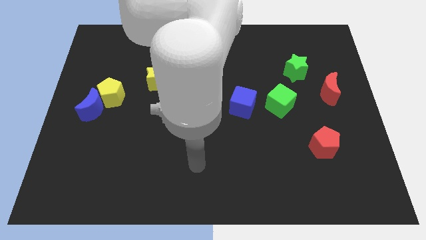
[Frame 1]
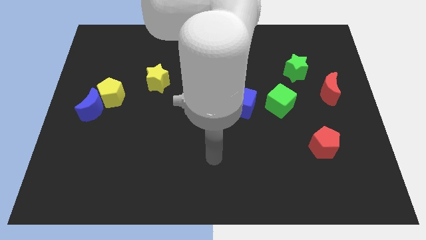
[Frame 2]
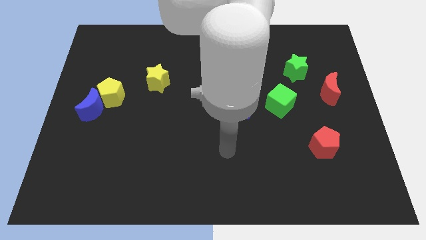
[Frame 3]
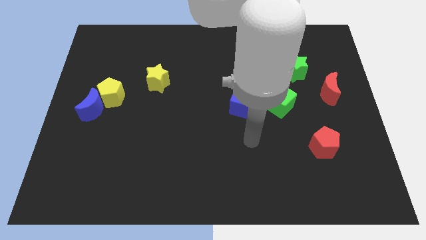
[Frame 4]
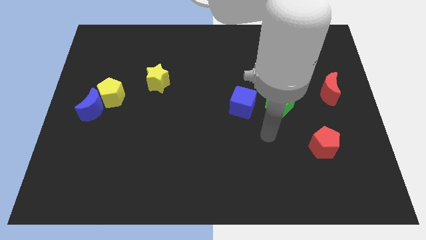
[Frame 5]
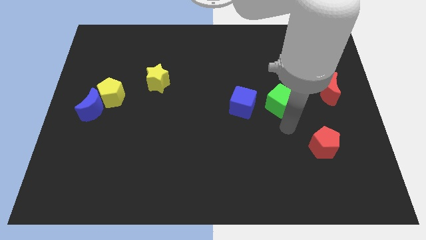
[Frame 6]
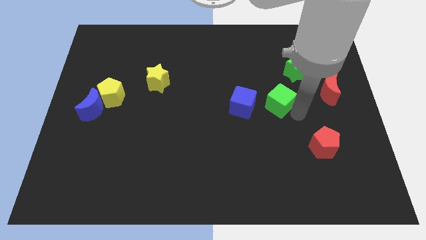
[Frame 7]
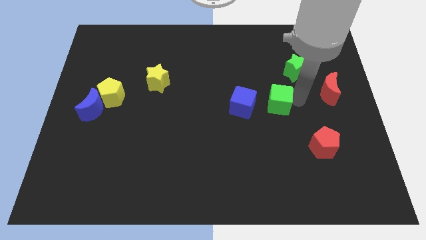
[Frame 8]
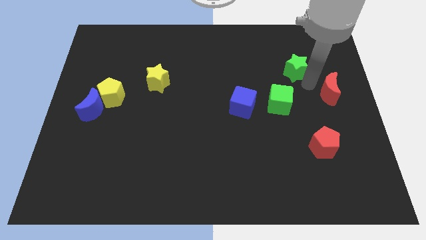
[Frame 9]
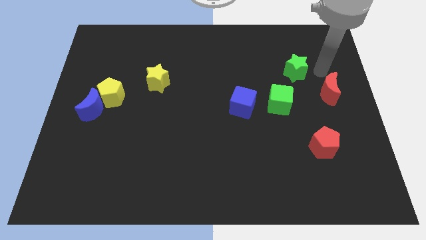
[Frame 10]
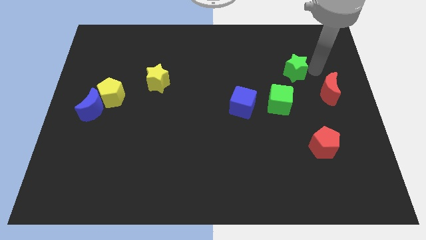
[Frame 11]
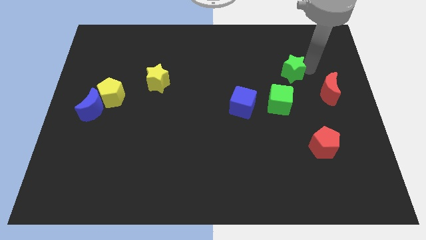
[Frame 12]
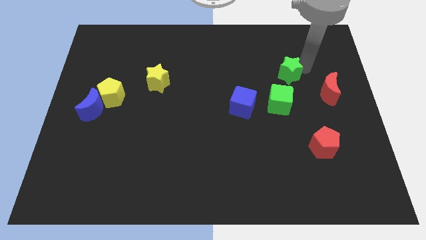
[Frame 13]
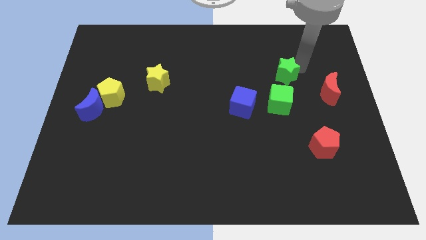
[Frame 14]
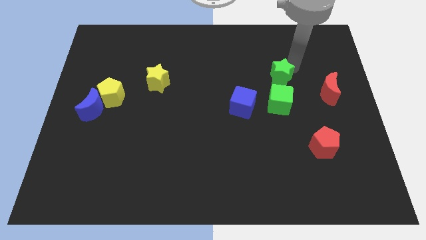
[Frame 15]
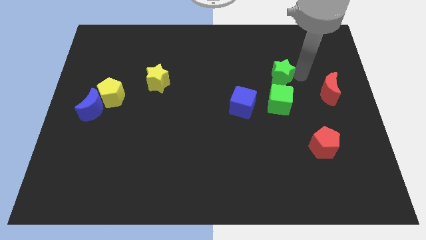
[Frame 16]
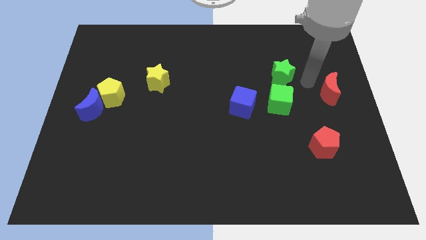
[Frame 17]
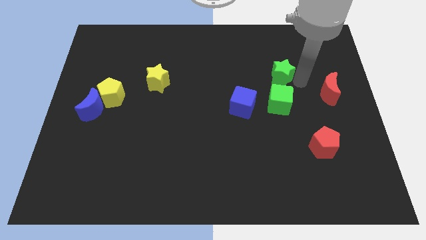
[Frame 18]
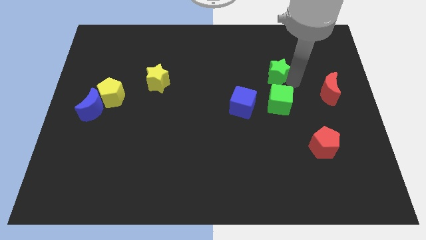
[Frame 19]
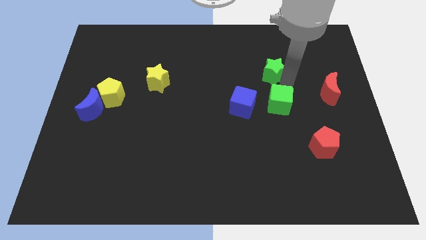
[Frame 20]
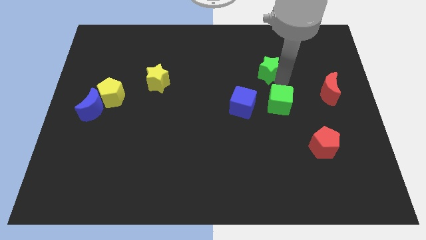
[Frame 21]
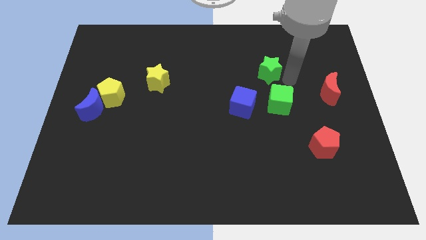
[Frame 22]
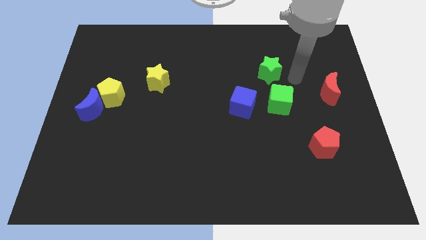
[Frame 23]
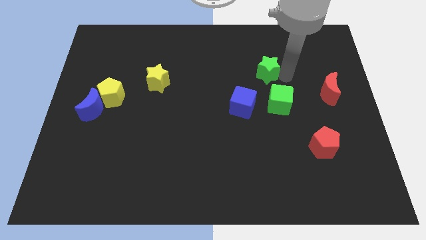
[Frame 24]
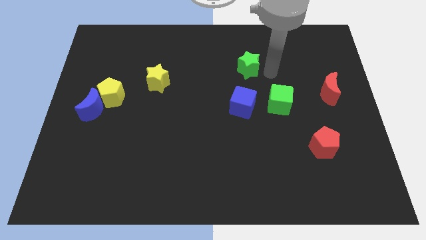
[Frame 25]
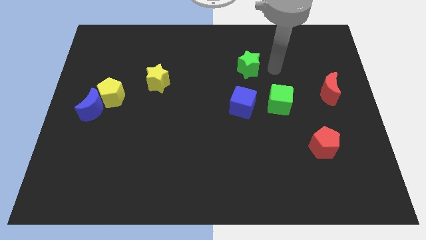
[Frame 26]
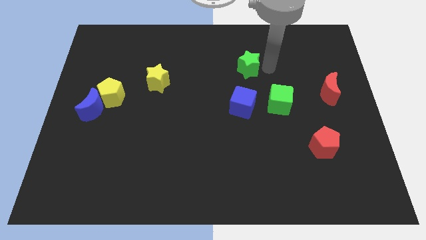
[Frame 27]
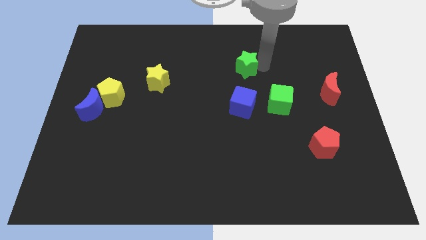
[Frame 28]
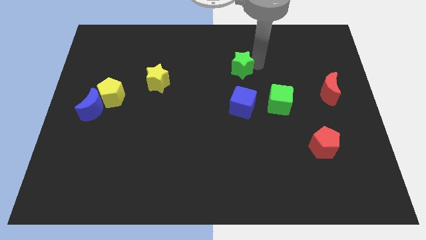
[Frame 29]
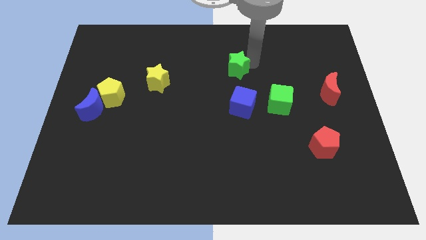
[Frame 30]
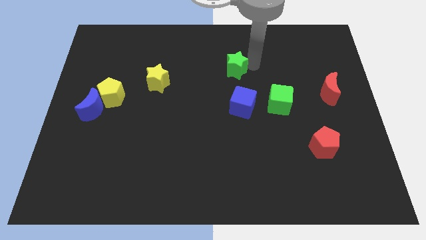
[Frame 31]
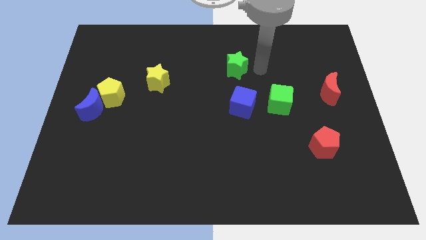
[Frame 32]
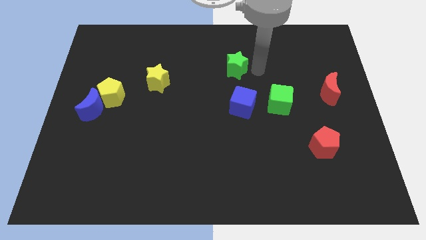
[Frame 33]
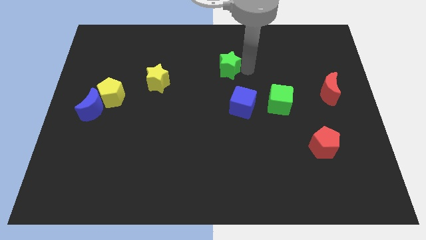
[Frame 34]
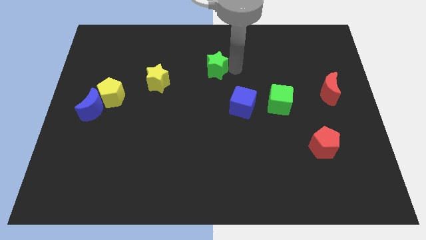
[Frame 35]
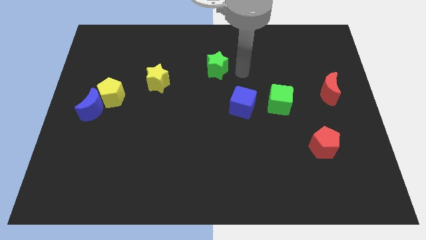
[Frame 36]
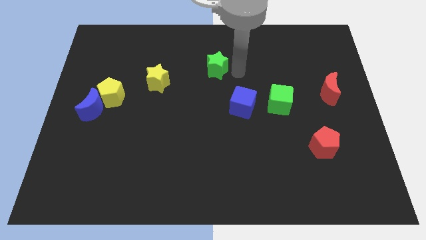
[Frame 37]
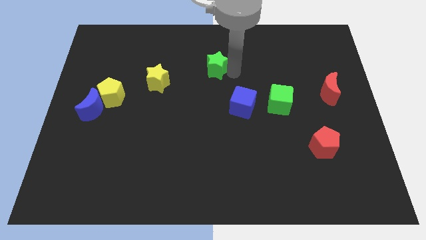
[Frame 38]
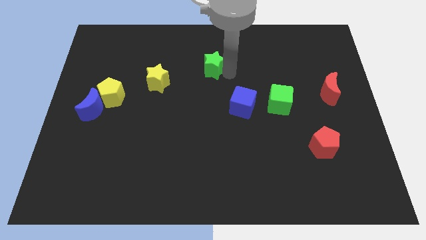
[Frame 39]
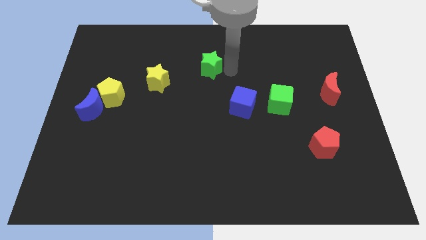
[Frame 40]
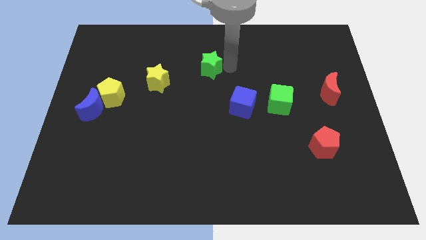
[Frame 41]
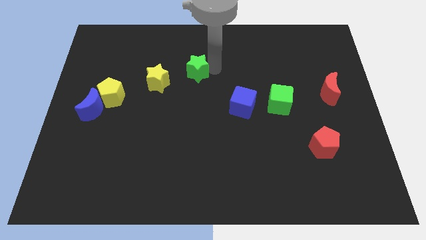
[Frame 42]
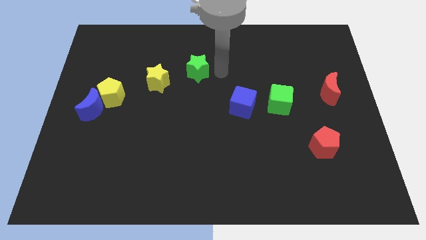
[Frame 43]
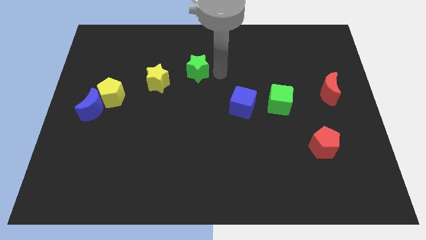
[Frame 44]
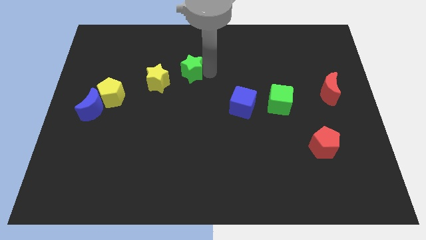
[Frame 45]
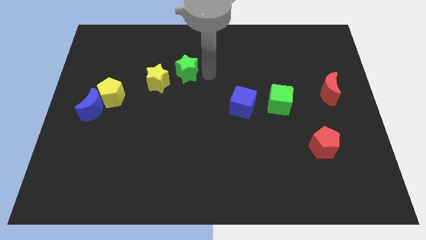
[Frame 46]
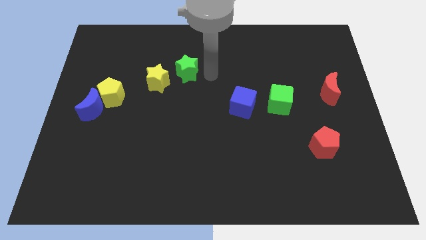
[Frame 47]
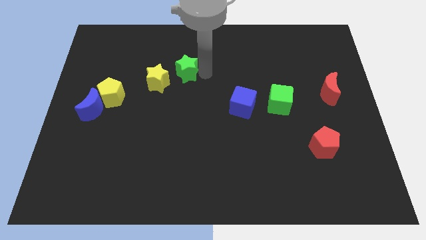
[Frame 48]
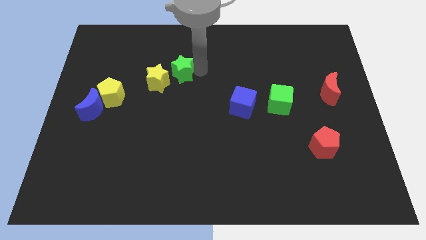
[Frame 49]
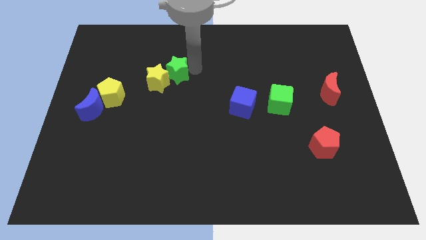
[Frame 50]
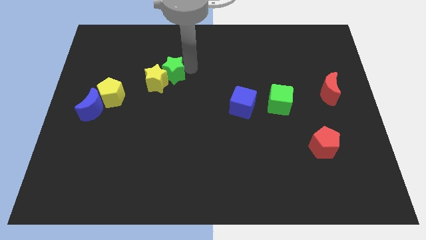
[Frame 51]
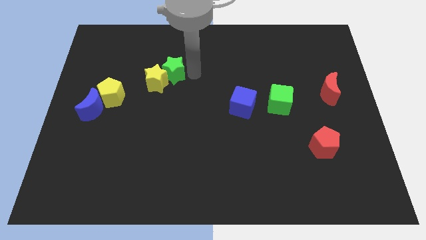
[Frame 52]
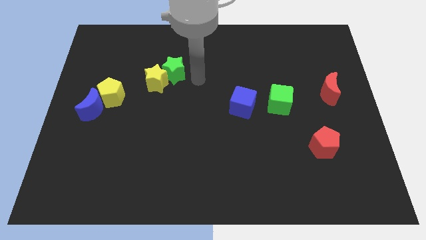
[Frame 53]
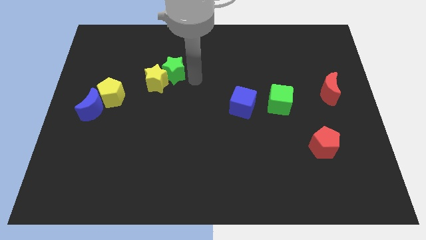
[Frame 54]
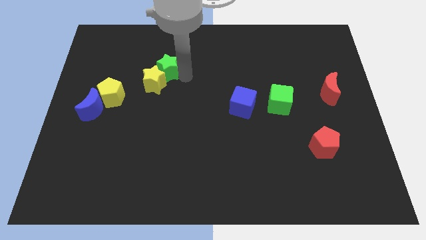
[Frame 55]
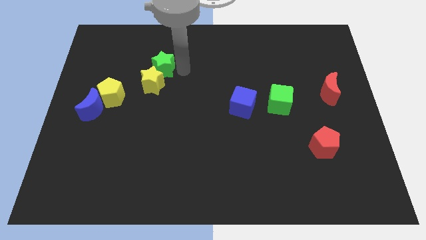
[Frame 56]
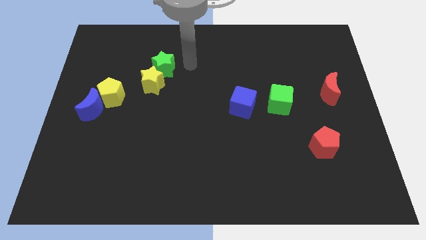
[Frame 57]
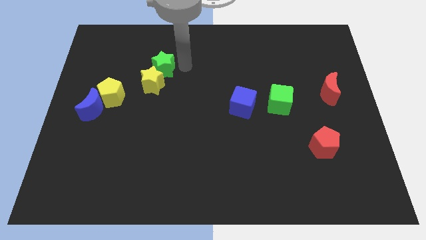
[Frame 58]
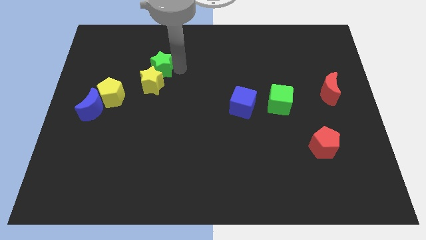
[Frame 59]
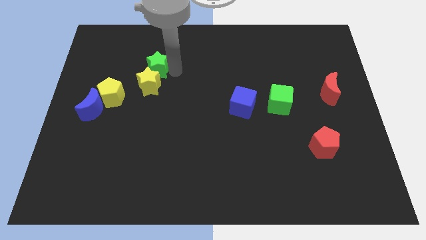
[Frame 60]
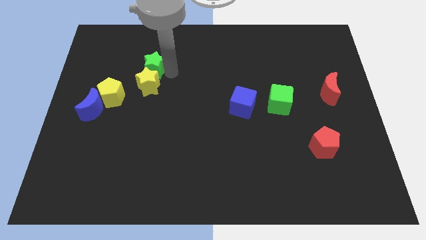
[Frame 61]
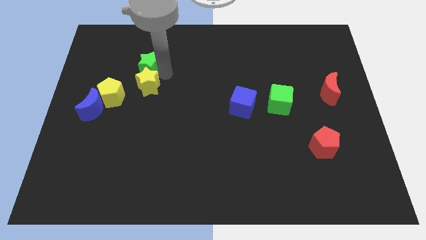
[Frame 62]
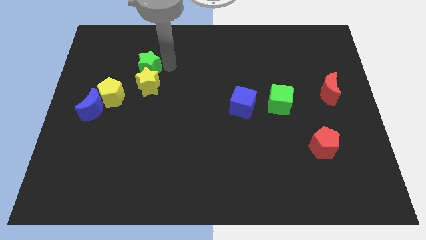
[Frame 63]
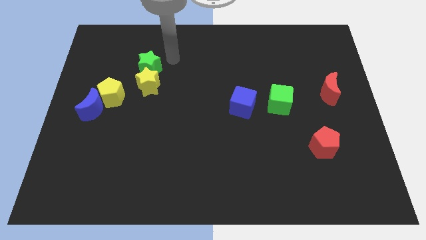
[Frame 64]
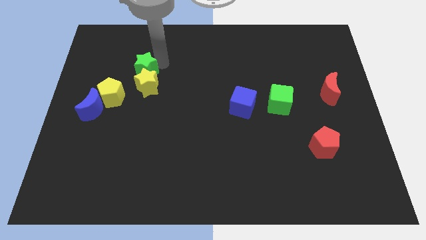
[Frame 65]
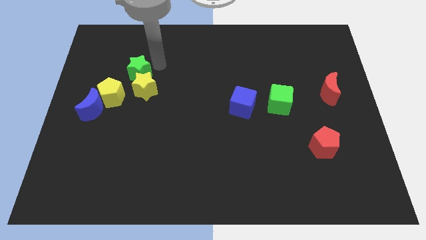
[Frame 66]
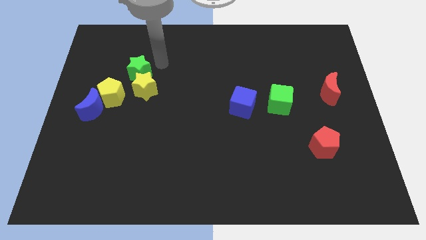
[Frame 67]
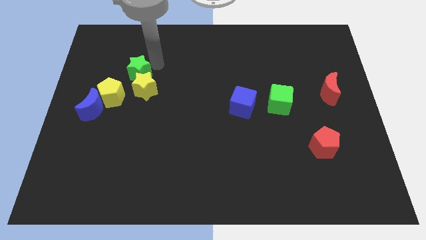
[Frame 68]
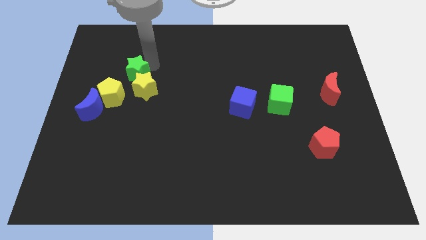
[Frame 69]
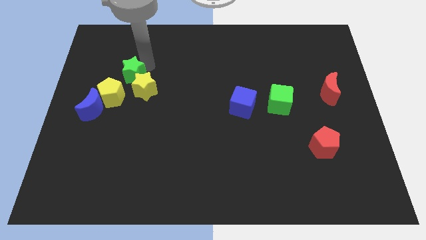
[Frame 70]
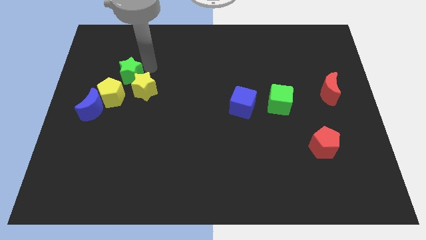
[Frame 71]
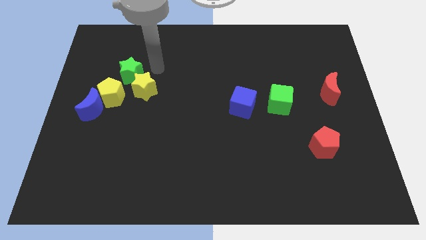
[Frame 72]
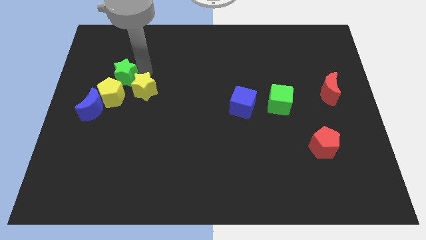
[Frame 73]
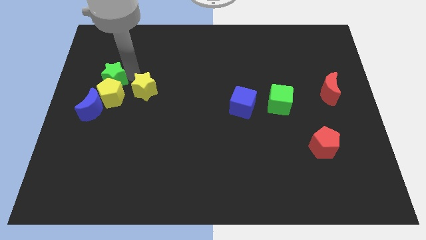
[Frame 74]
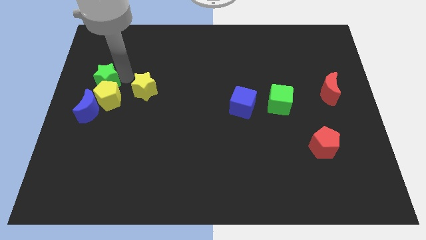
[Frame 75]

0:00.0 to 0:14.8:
put the green star to the left side

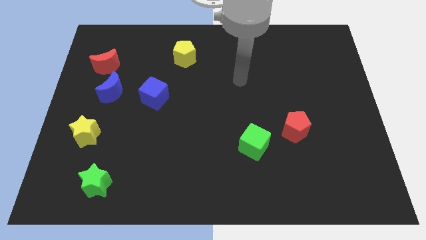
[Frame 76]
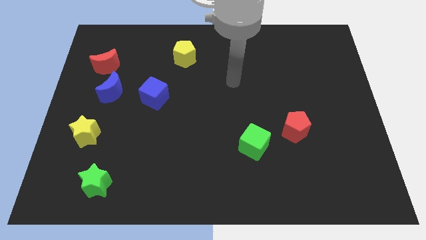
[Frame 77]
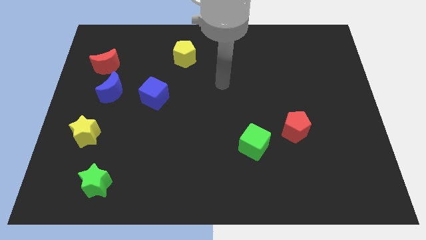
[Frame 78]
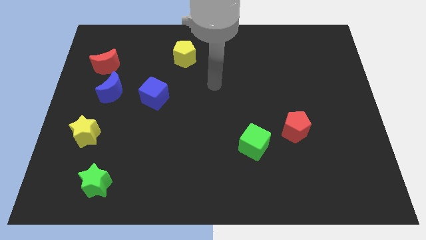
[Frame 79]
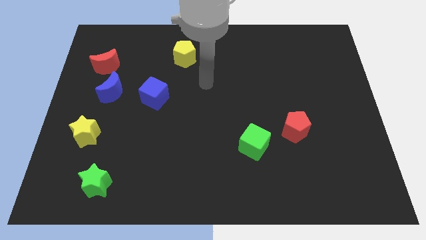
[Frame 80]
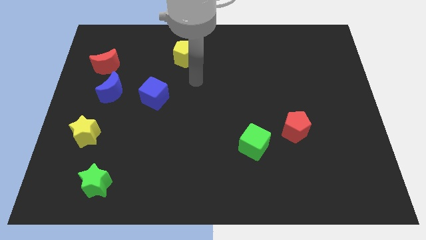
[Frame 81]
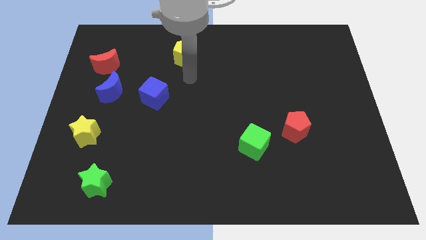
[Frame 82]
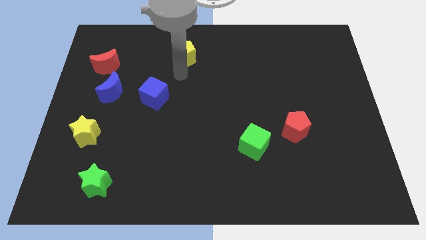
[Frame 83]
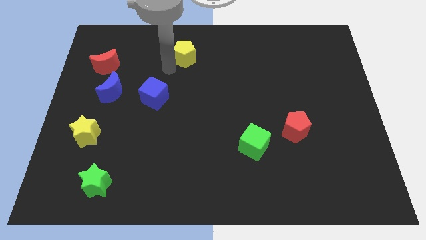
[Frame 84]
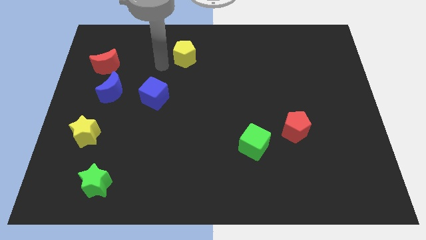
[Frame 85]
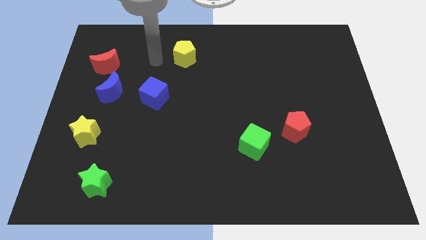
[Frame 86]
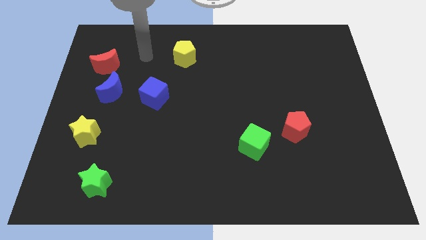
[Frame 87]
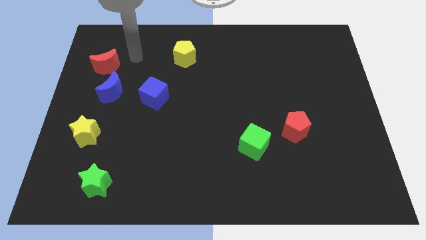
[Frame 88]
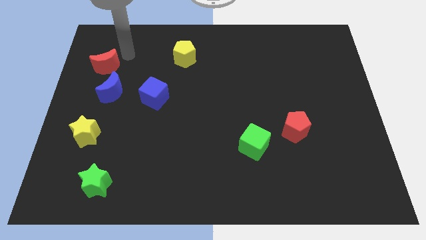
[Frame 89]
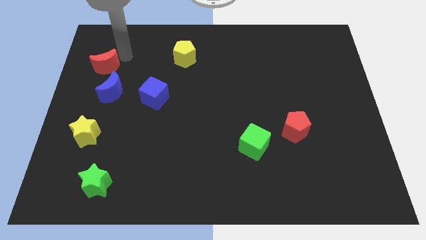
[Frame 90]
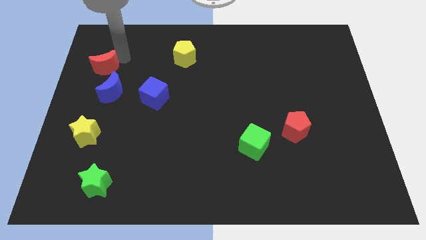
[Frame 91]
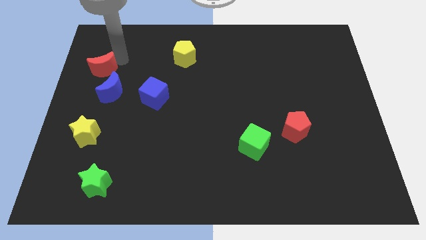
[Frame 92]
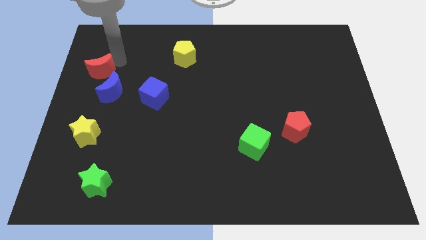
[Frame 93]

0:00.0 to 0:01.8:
move the red moon to the center left
